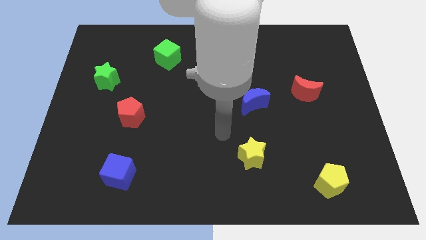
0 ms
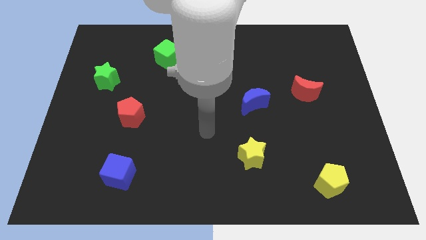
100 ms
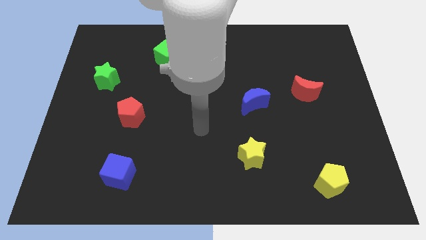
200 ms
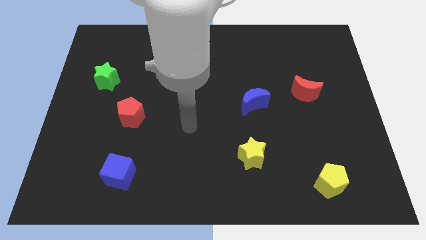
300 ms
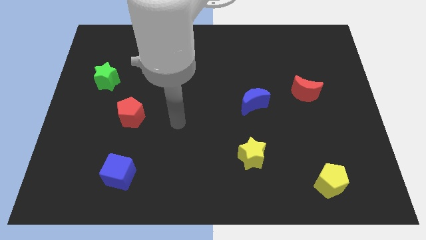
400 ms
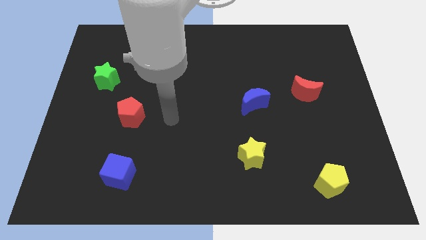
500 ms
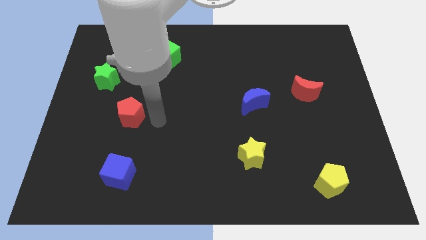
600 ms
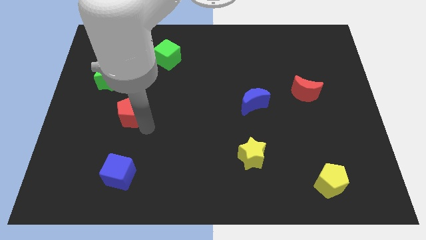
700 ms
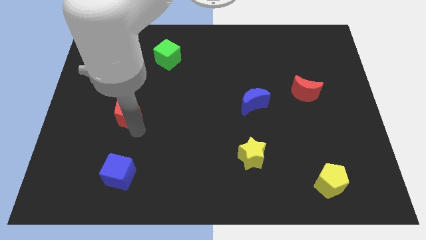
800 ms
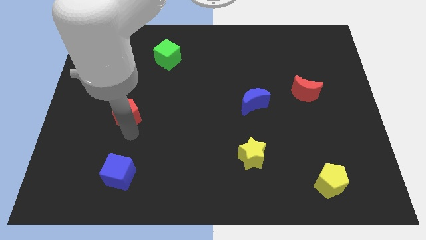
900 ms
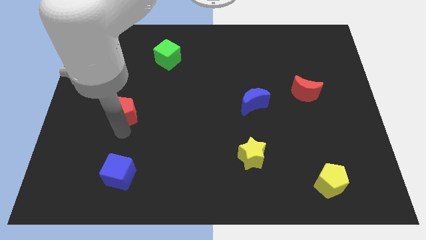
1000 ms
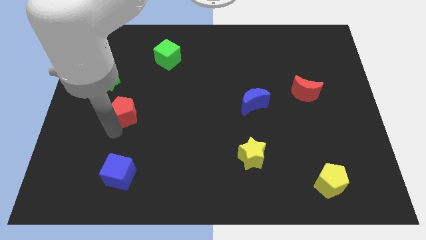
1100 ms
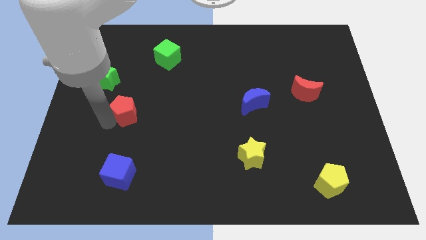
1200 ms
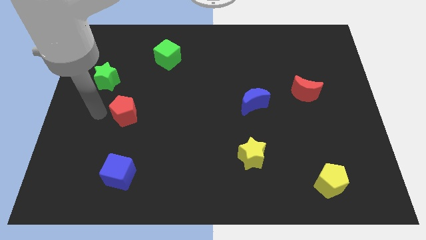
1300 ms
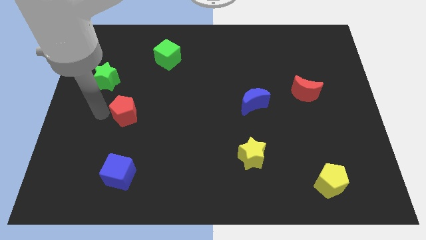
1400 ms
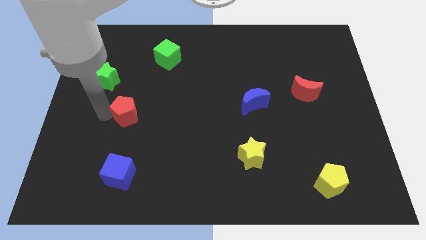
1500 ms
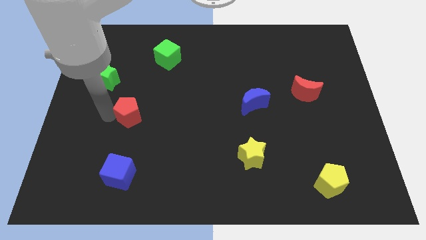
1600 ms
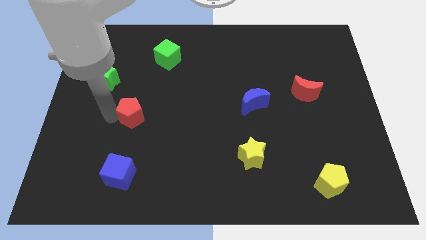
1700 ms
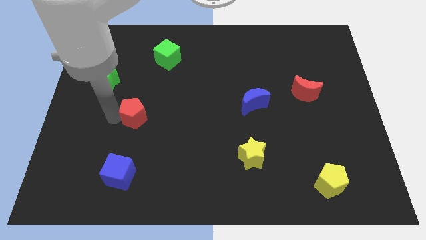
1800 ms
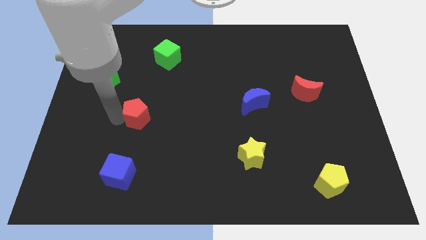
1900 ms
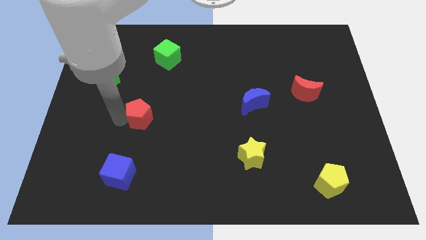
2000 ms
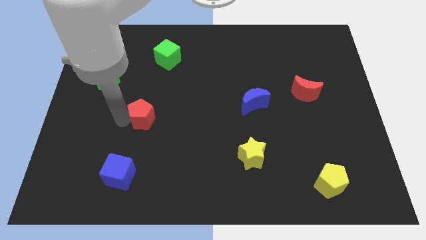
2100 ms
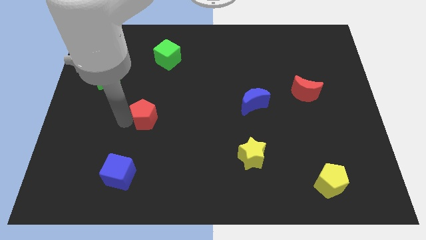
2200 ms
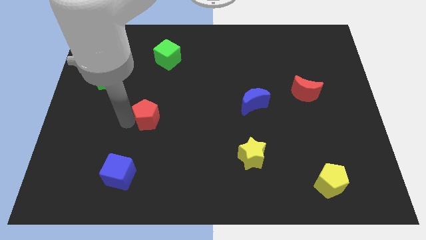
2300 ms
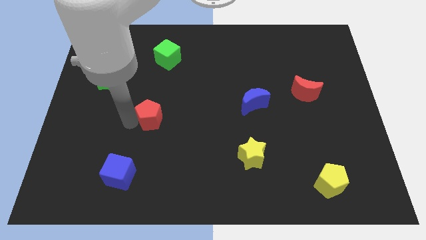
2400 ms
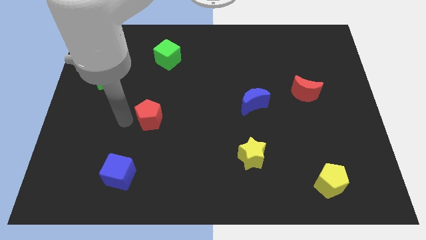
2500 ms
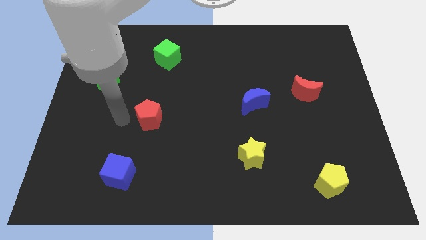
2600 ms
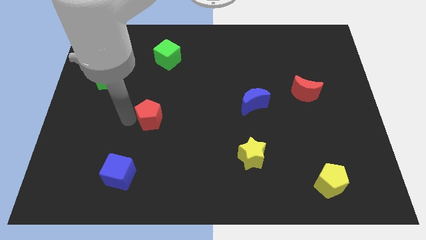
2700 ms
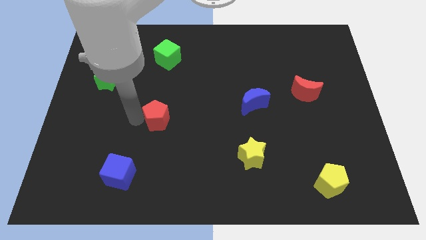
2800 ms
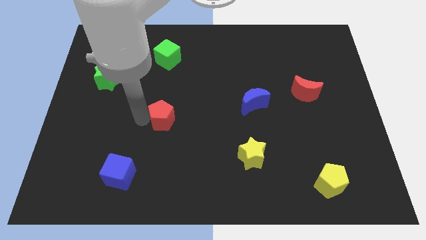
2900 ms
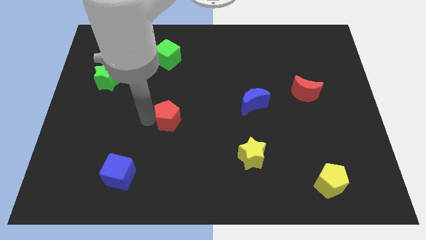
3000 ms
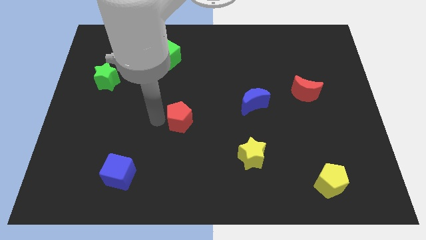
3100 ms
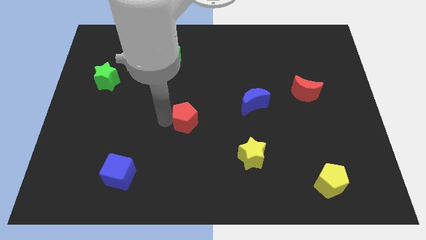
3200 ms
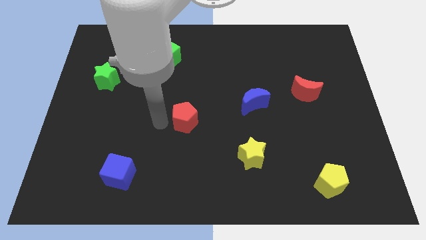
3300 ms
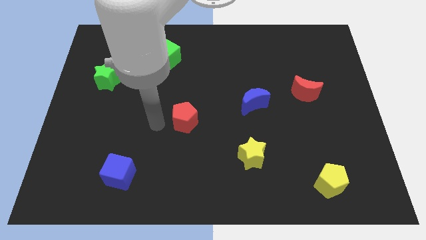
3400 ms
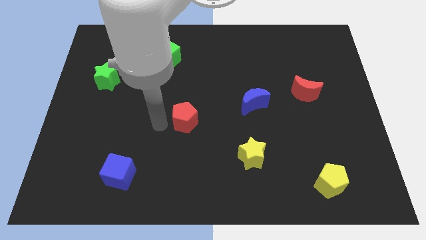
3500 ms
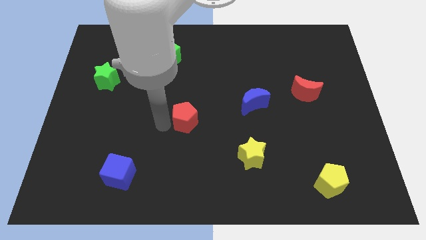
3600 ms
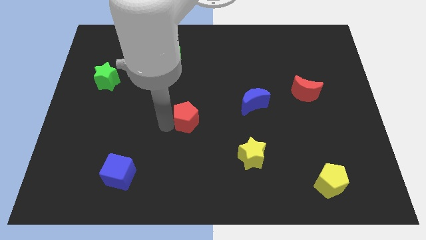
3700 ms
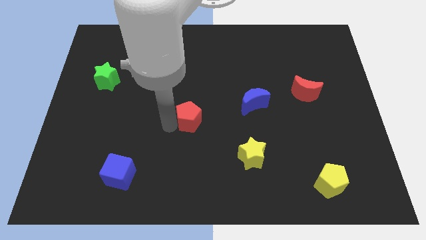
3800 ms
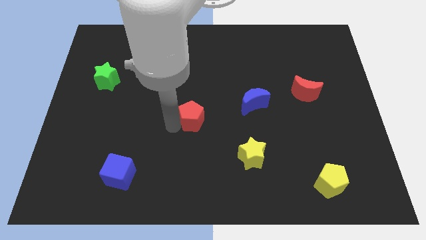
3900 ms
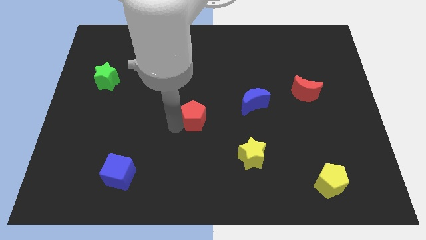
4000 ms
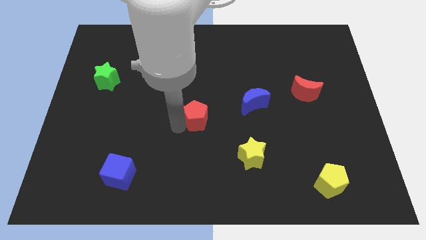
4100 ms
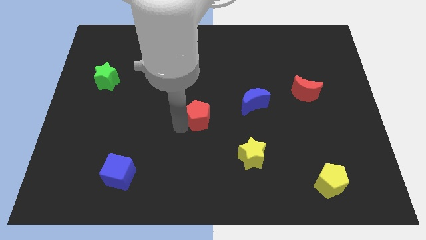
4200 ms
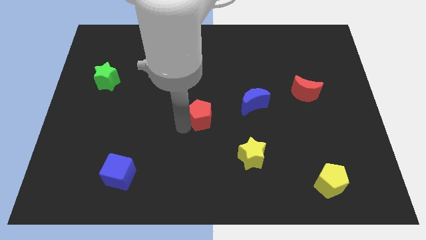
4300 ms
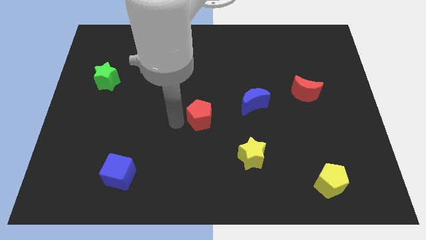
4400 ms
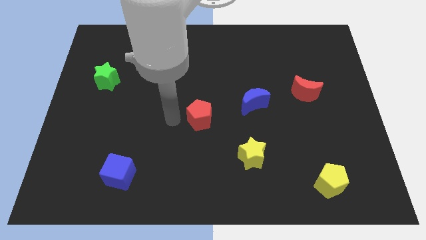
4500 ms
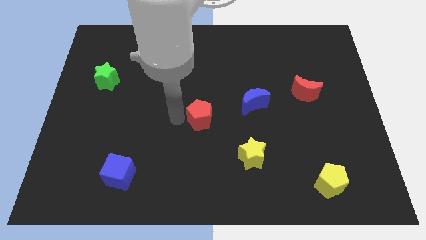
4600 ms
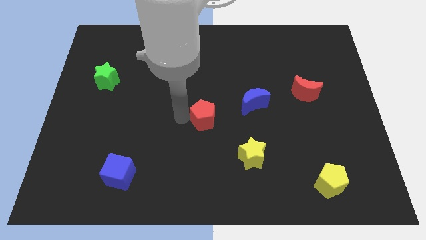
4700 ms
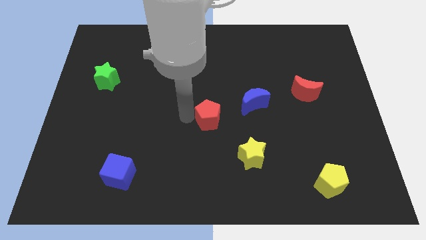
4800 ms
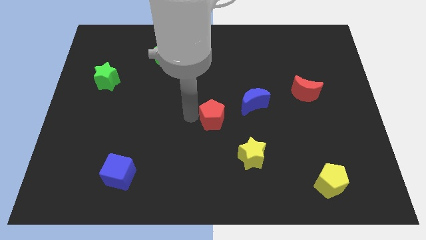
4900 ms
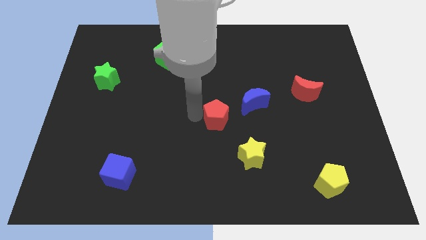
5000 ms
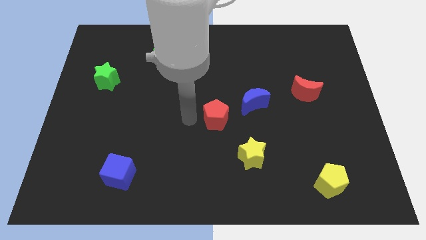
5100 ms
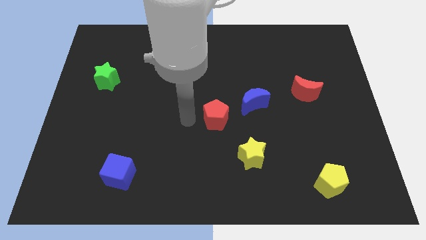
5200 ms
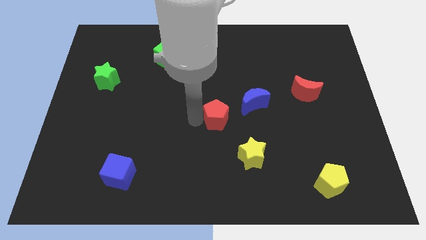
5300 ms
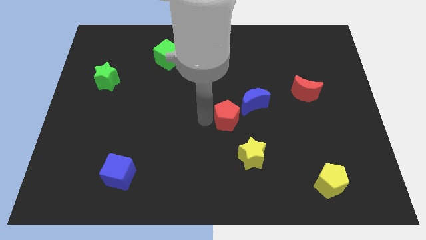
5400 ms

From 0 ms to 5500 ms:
slide the red pentagon to the right

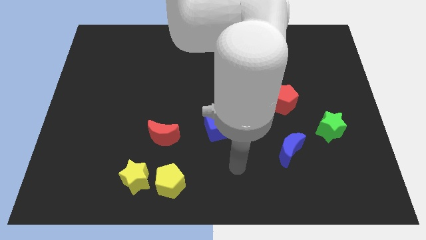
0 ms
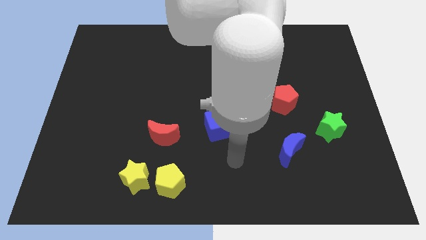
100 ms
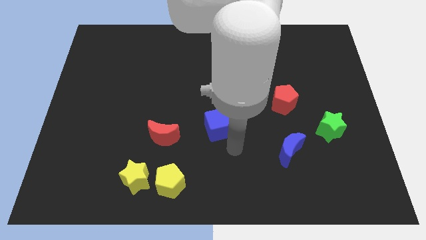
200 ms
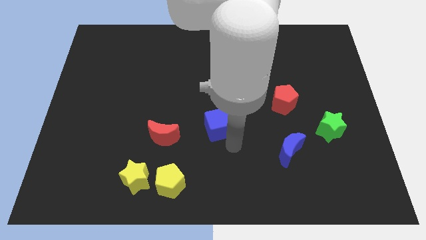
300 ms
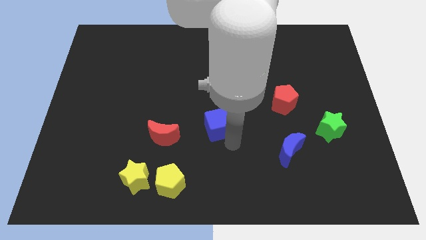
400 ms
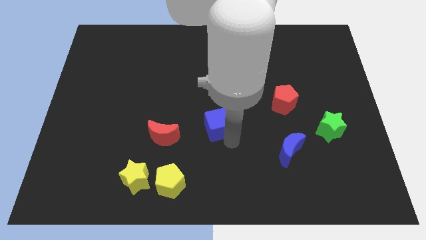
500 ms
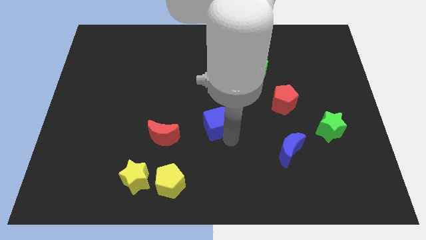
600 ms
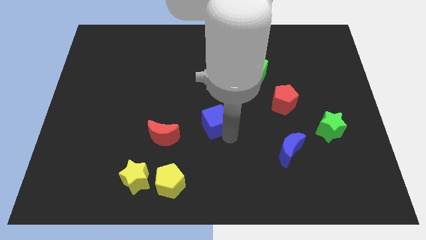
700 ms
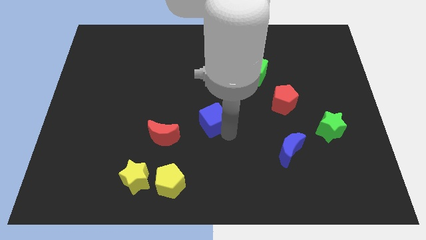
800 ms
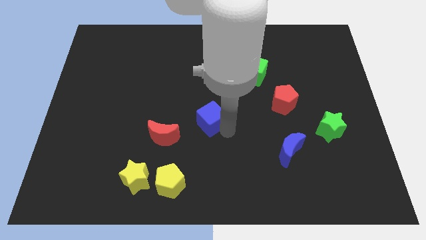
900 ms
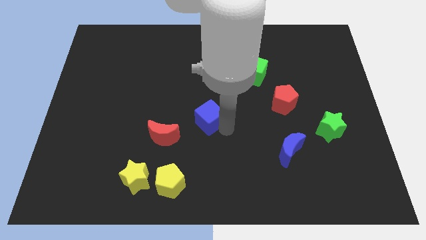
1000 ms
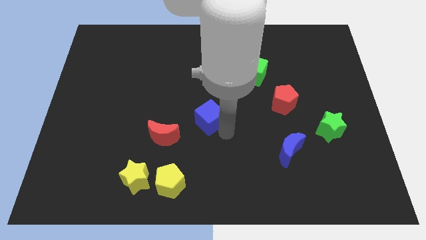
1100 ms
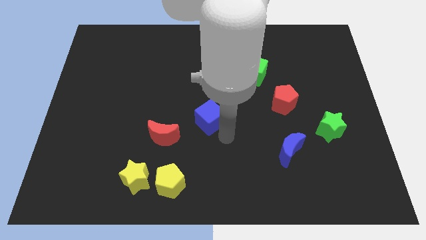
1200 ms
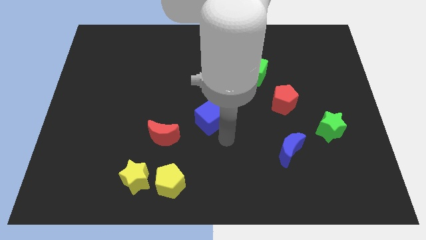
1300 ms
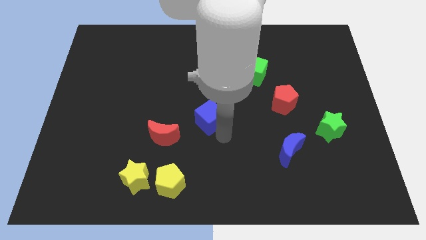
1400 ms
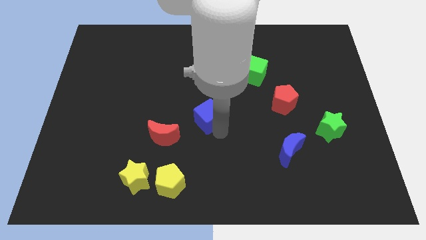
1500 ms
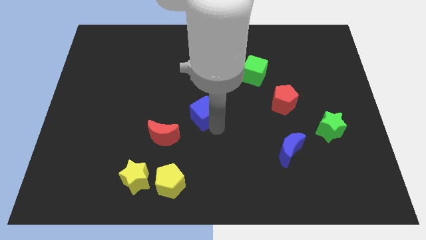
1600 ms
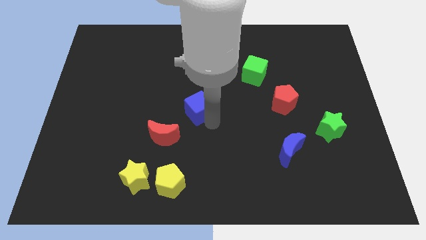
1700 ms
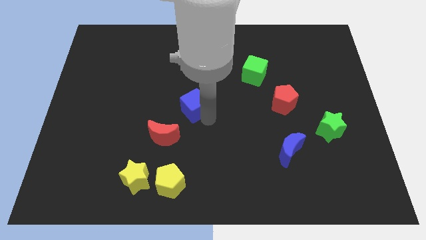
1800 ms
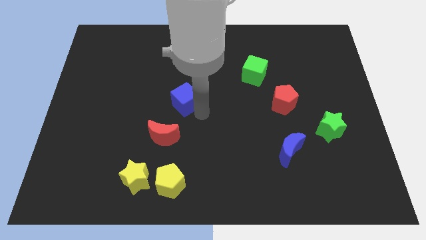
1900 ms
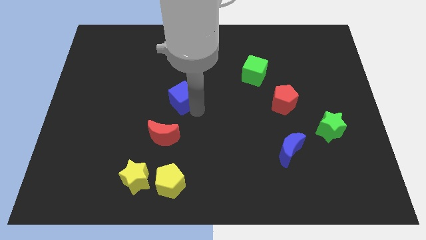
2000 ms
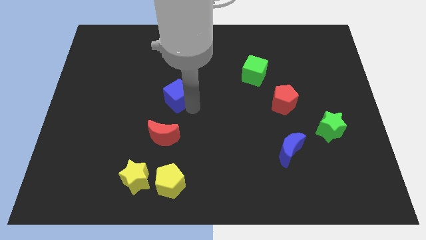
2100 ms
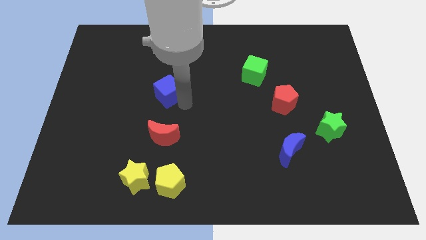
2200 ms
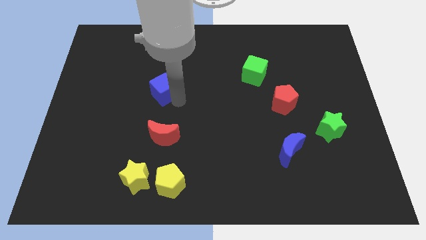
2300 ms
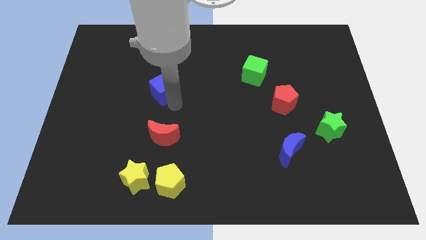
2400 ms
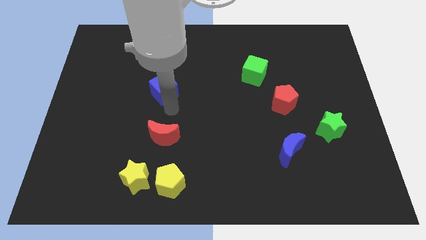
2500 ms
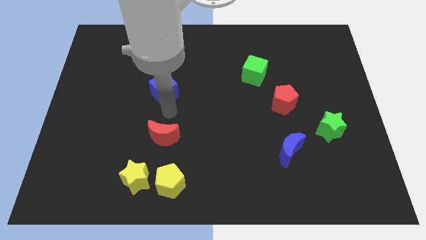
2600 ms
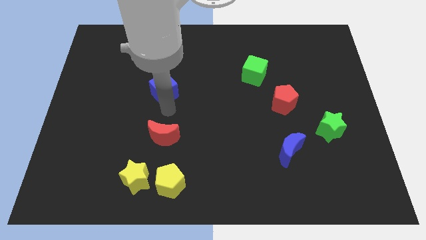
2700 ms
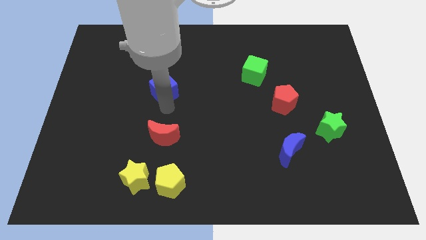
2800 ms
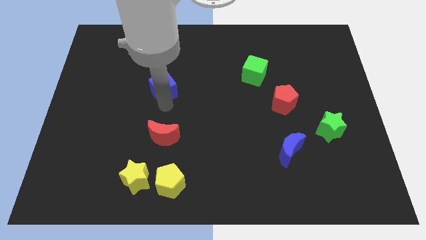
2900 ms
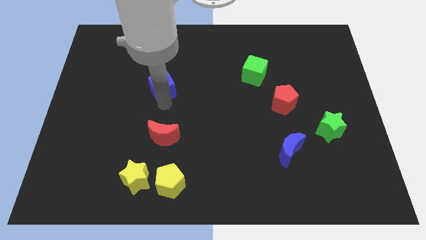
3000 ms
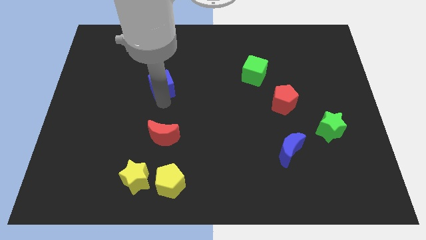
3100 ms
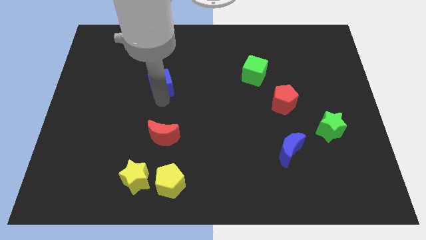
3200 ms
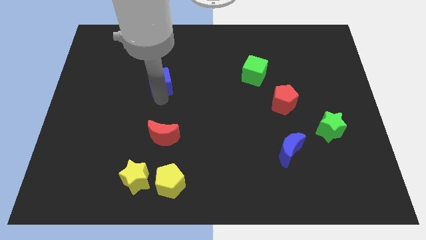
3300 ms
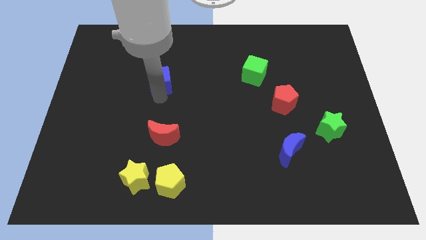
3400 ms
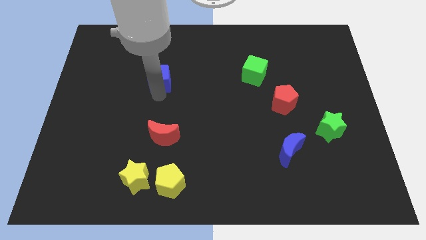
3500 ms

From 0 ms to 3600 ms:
slide the blue cube upwards and to the left
